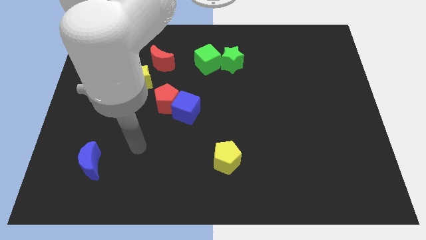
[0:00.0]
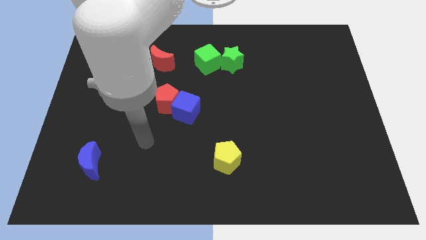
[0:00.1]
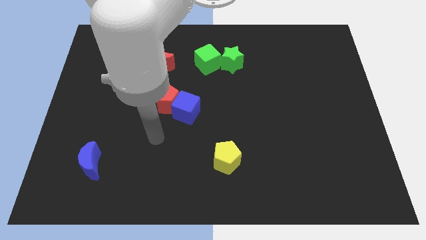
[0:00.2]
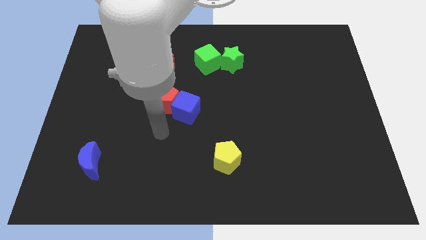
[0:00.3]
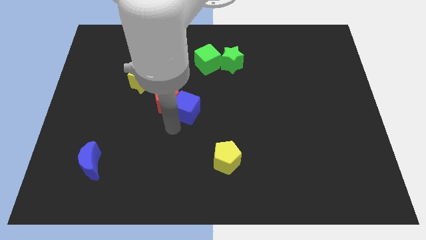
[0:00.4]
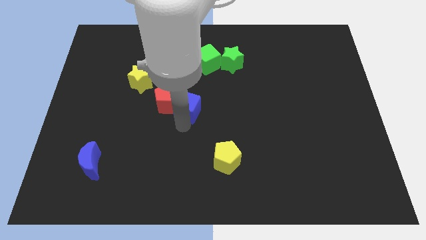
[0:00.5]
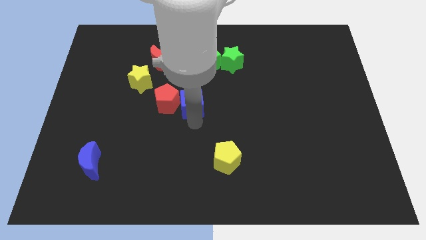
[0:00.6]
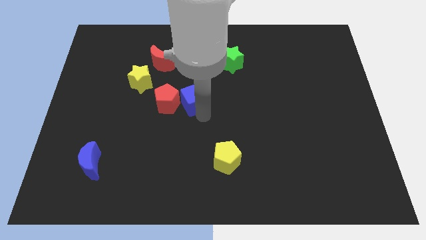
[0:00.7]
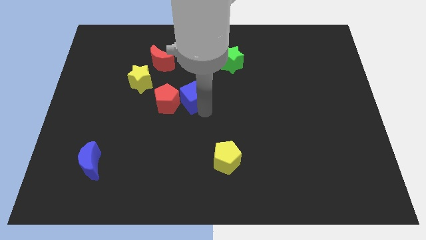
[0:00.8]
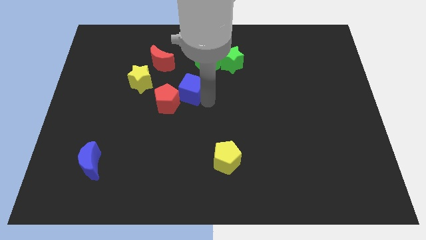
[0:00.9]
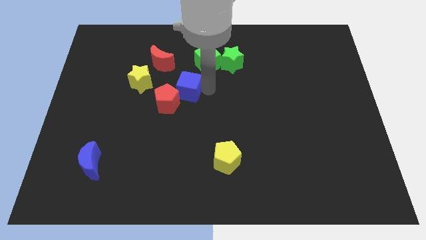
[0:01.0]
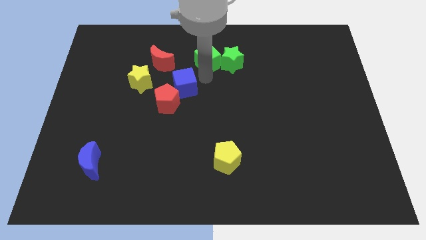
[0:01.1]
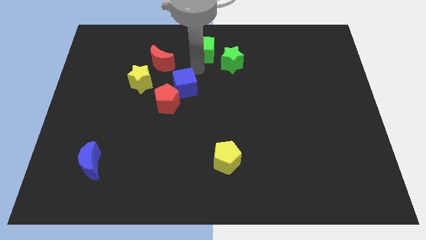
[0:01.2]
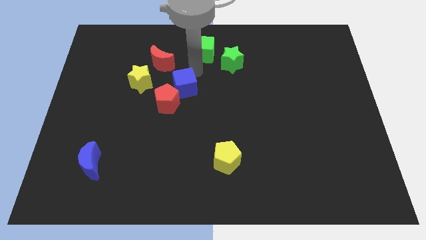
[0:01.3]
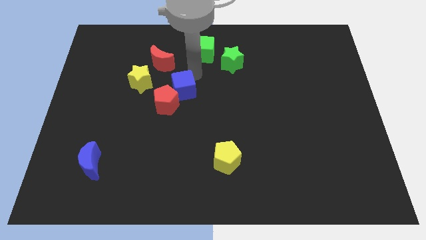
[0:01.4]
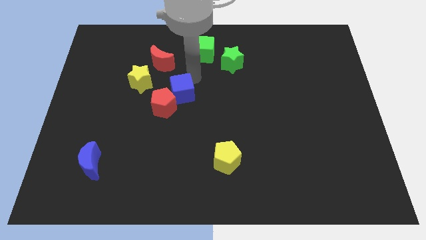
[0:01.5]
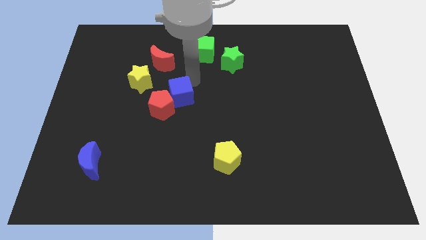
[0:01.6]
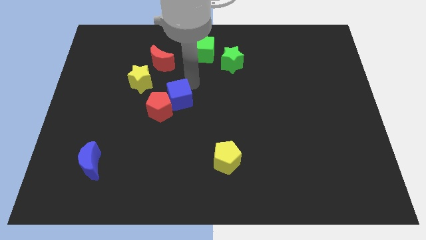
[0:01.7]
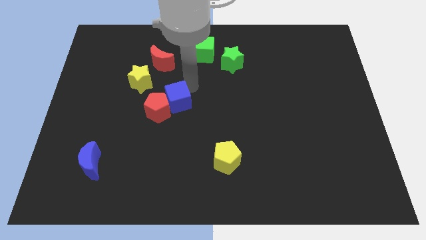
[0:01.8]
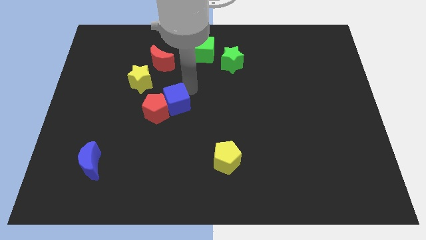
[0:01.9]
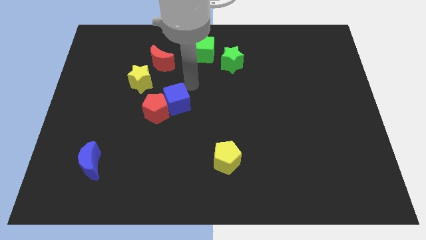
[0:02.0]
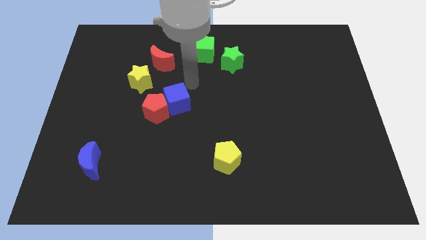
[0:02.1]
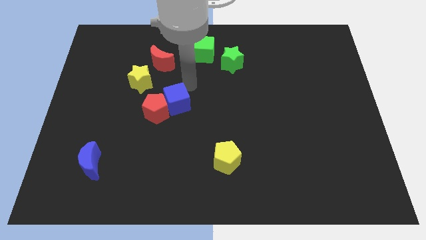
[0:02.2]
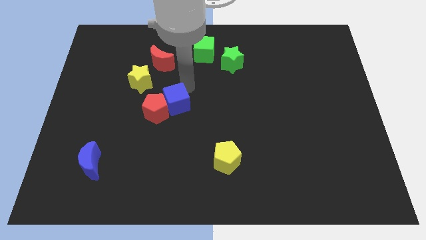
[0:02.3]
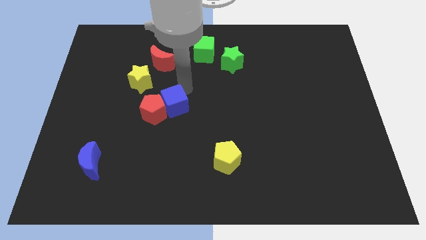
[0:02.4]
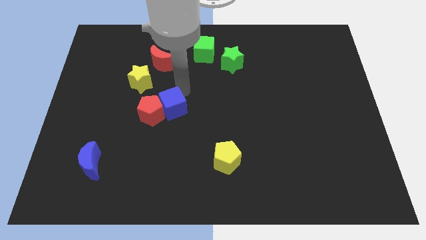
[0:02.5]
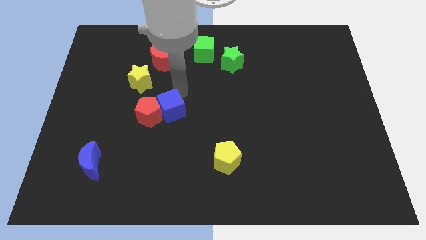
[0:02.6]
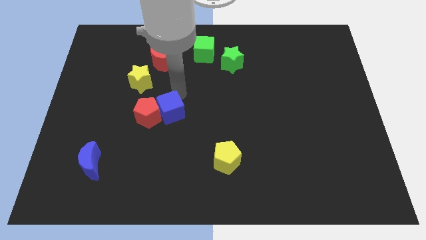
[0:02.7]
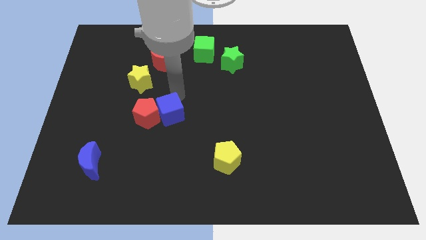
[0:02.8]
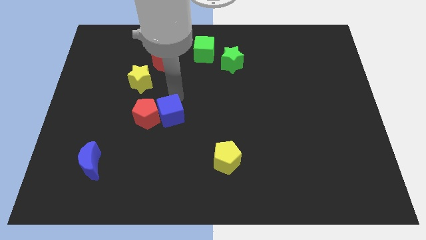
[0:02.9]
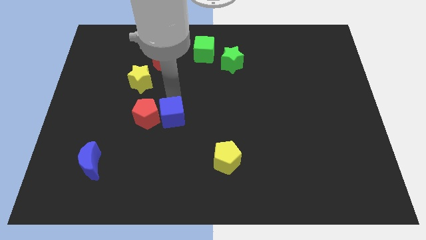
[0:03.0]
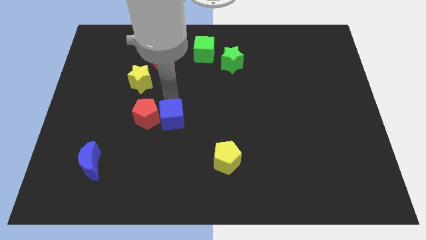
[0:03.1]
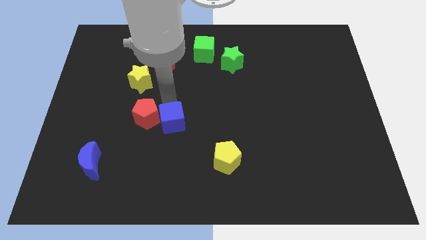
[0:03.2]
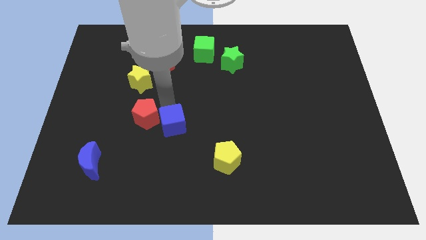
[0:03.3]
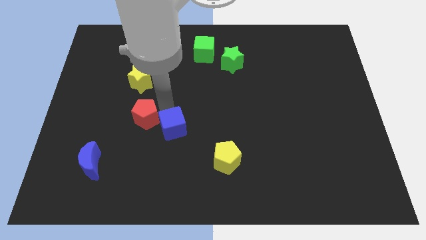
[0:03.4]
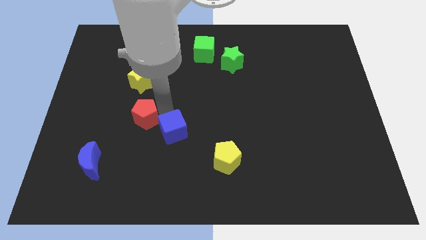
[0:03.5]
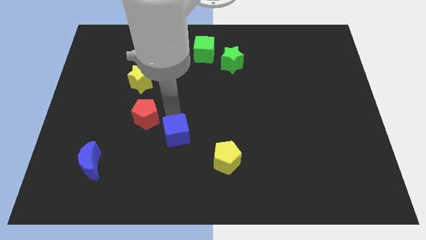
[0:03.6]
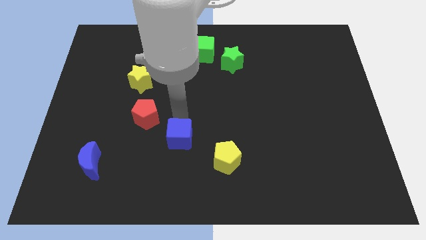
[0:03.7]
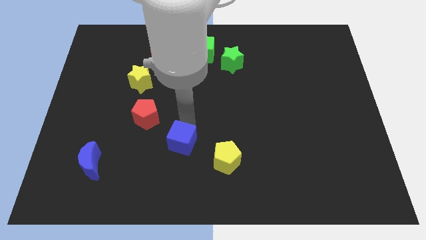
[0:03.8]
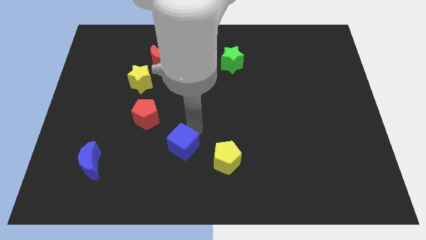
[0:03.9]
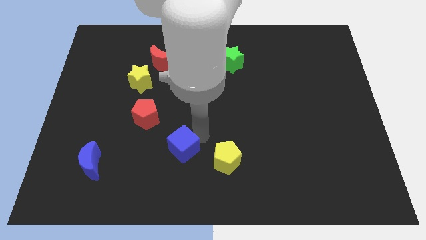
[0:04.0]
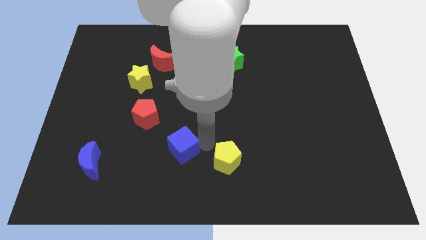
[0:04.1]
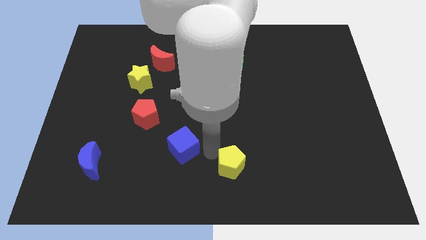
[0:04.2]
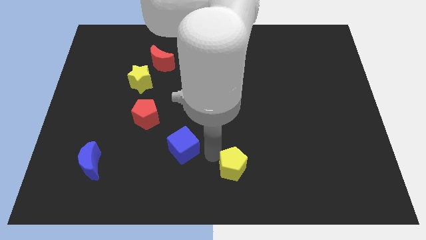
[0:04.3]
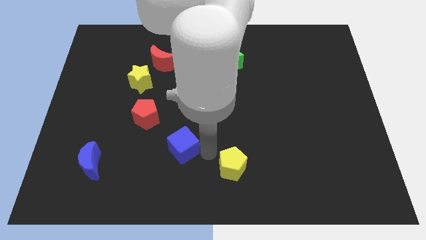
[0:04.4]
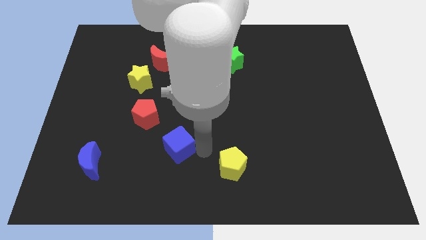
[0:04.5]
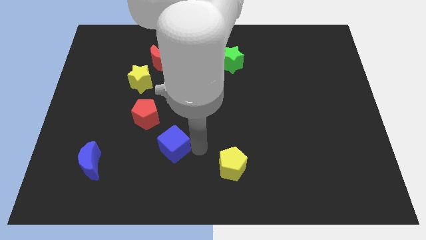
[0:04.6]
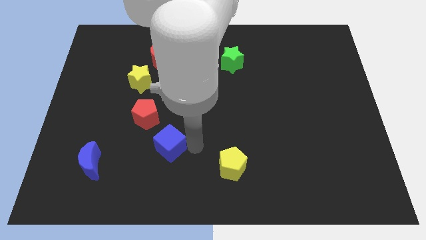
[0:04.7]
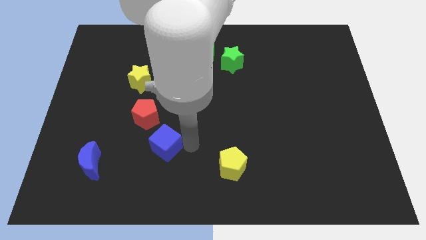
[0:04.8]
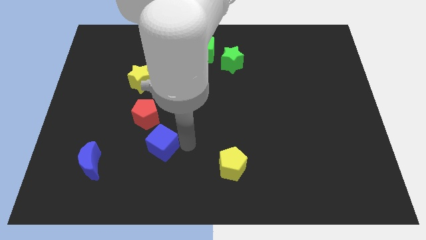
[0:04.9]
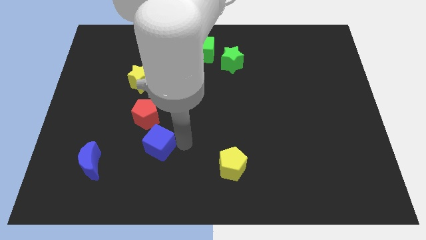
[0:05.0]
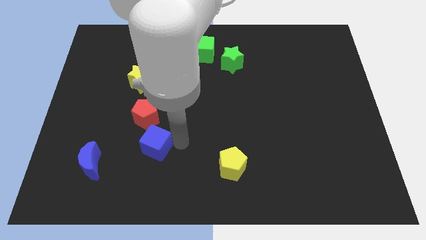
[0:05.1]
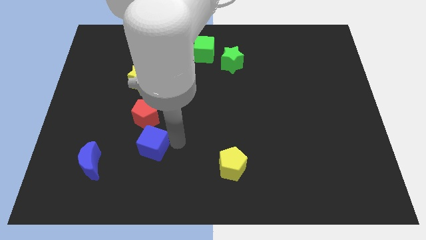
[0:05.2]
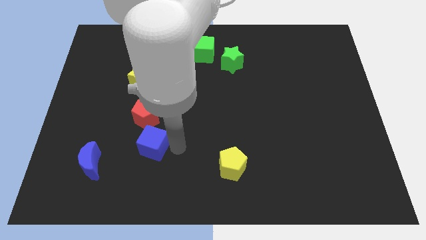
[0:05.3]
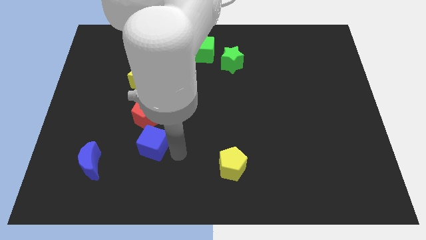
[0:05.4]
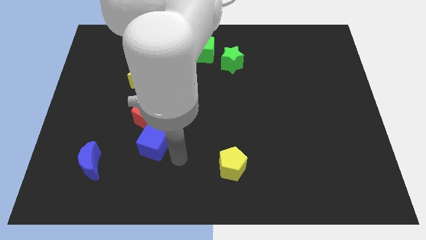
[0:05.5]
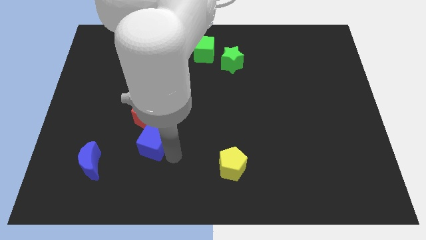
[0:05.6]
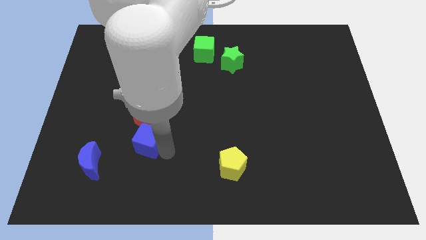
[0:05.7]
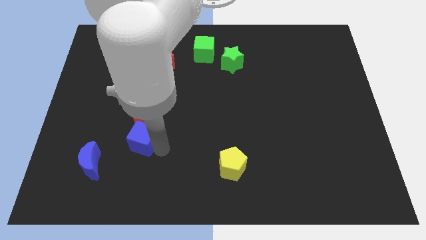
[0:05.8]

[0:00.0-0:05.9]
put the blue cube to the top right of the blue moon

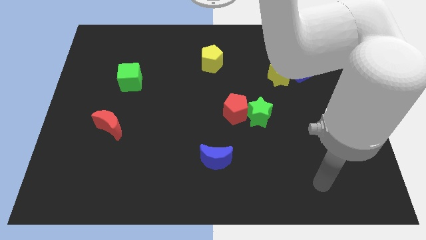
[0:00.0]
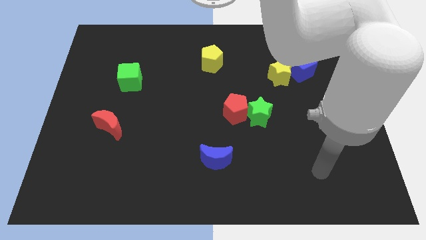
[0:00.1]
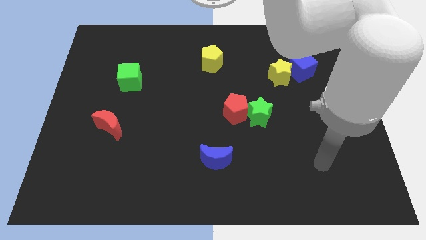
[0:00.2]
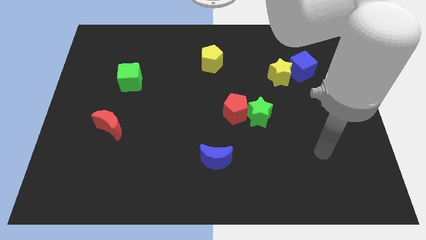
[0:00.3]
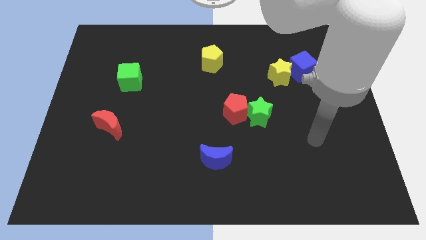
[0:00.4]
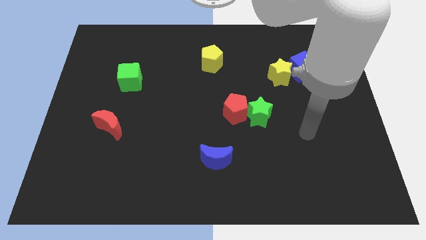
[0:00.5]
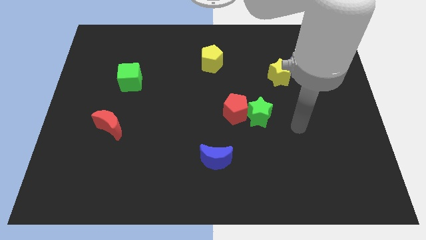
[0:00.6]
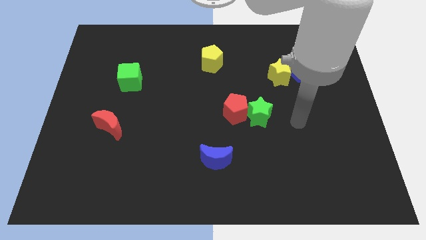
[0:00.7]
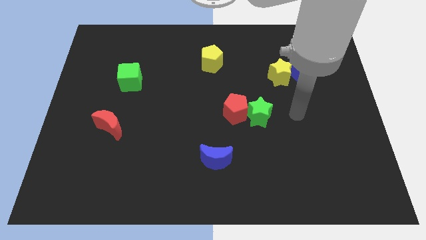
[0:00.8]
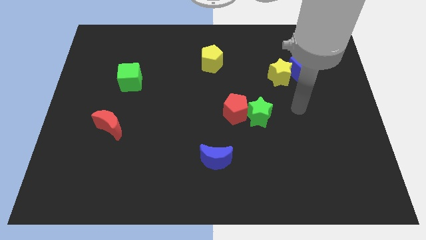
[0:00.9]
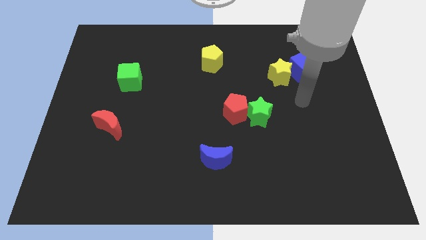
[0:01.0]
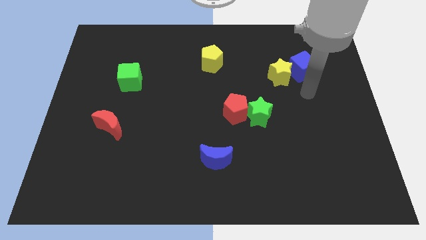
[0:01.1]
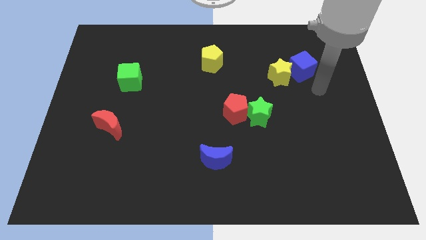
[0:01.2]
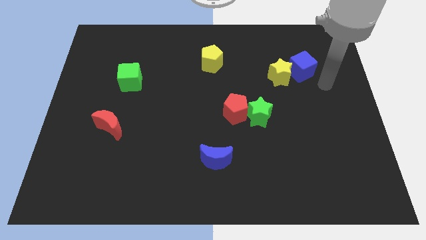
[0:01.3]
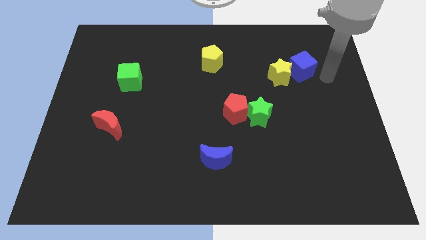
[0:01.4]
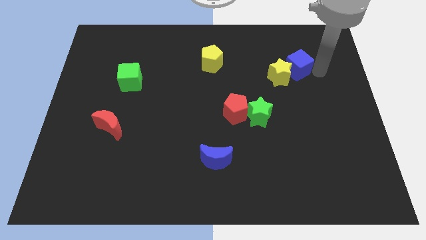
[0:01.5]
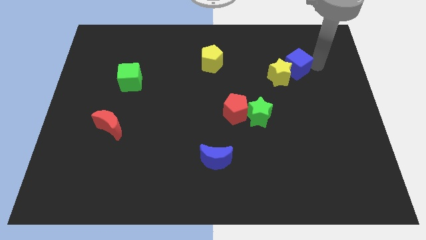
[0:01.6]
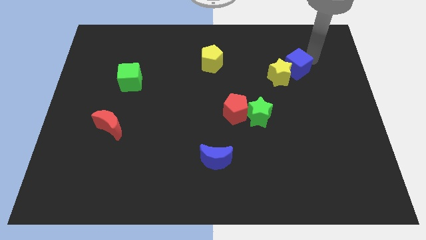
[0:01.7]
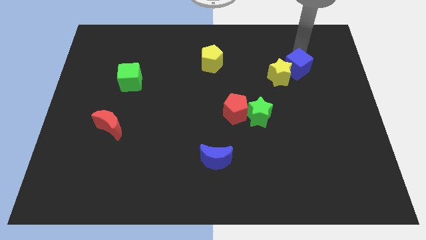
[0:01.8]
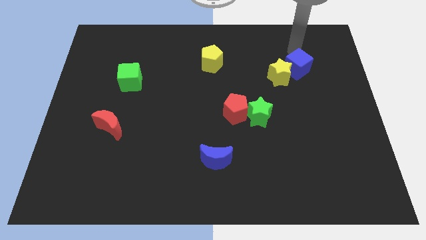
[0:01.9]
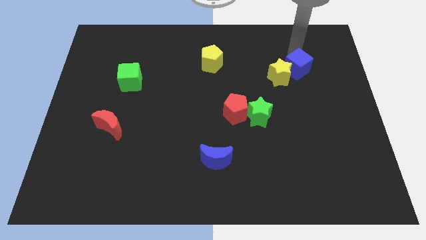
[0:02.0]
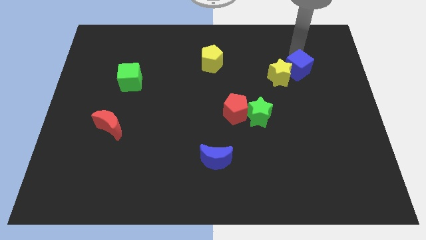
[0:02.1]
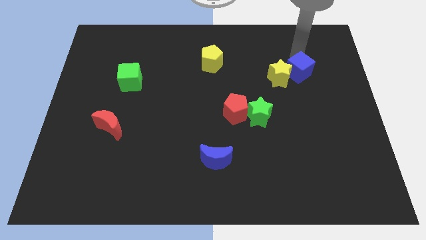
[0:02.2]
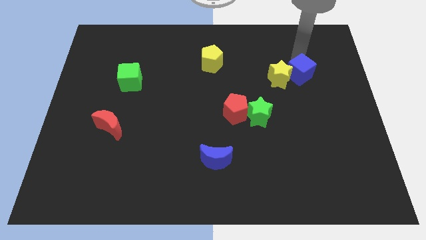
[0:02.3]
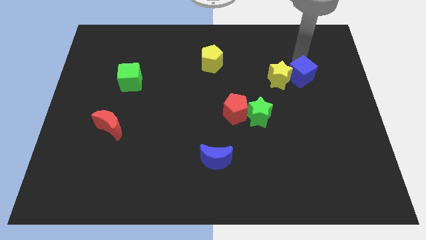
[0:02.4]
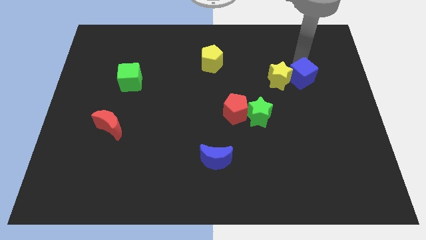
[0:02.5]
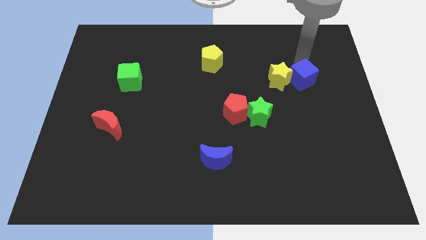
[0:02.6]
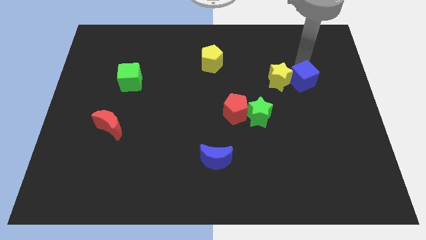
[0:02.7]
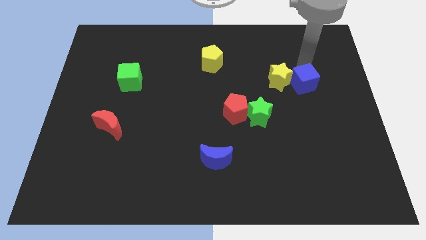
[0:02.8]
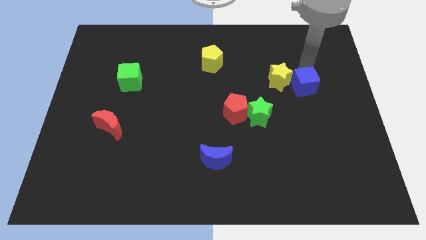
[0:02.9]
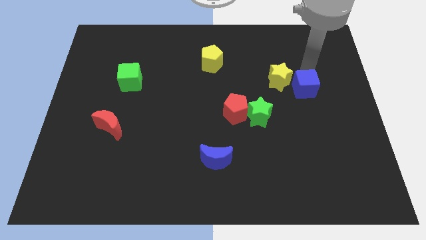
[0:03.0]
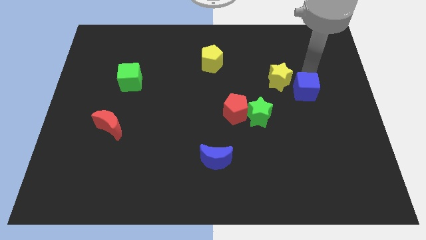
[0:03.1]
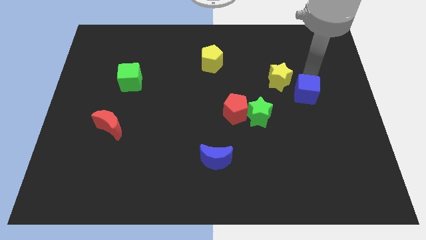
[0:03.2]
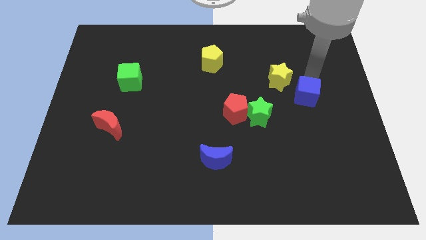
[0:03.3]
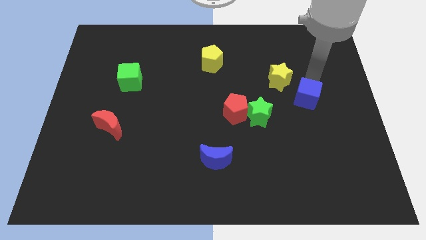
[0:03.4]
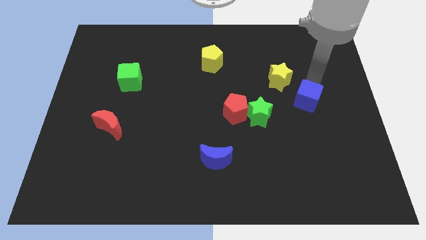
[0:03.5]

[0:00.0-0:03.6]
slide the blue cube to the right of the green star
